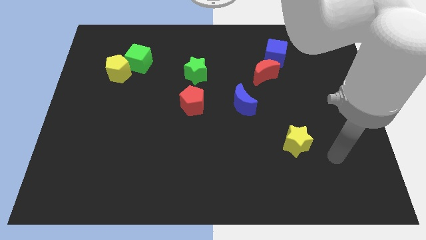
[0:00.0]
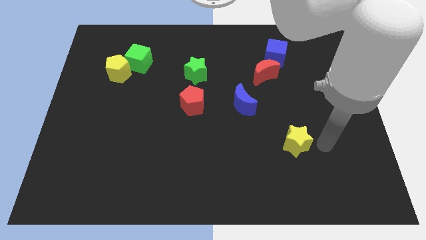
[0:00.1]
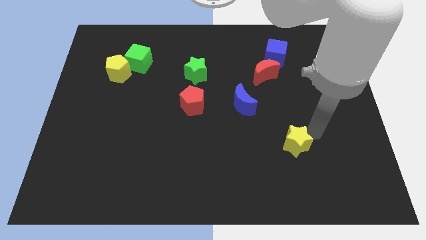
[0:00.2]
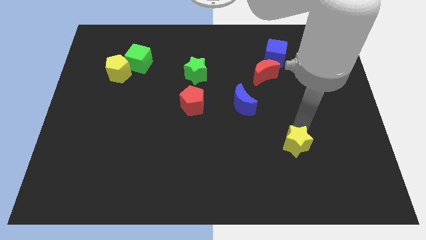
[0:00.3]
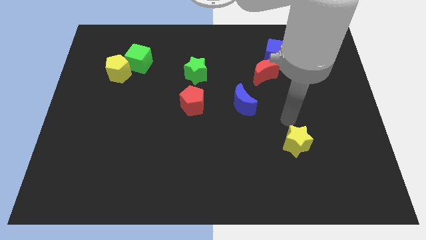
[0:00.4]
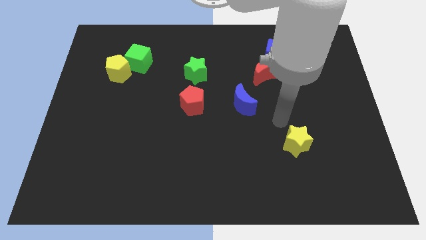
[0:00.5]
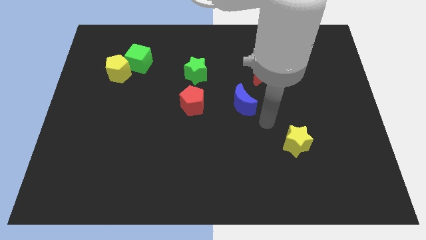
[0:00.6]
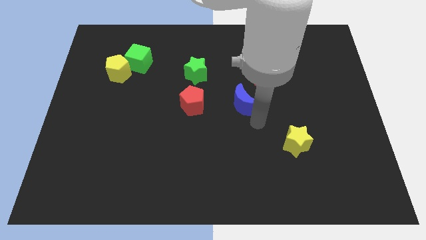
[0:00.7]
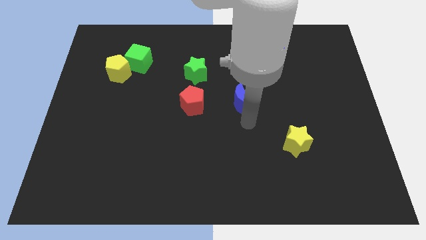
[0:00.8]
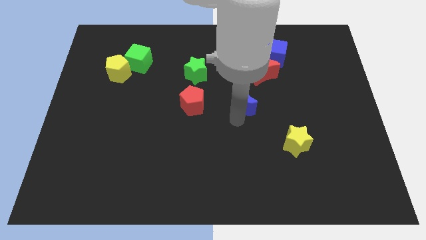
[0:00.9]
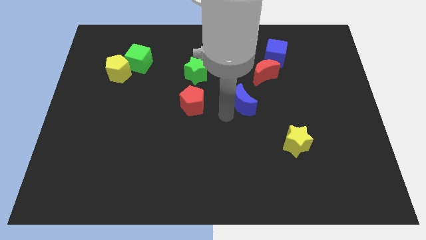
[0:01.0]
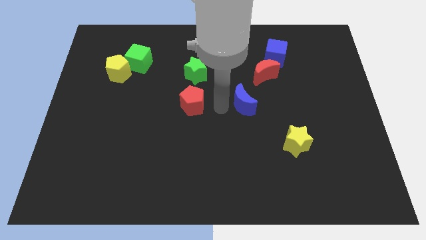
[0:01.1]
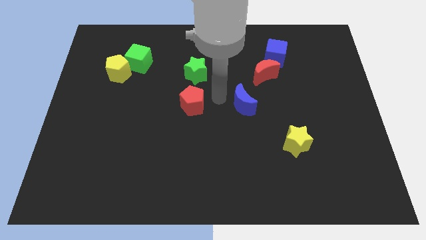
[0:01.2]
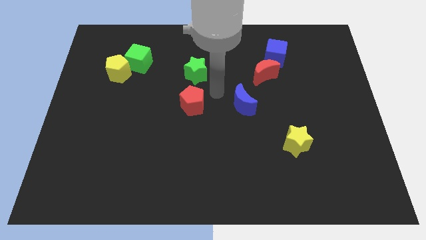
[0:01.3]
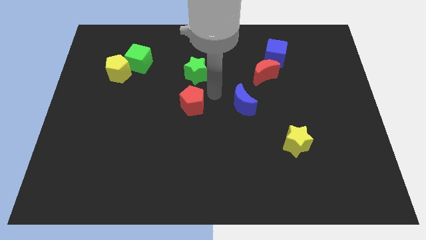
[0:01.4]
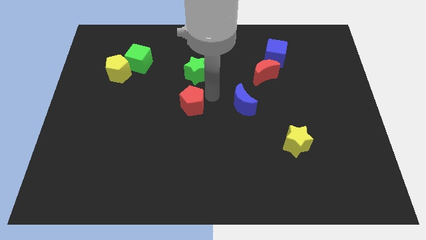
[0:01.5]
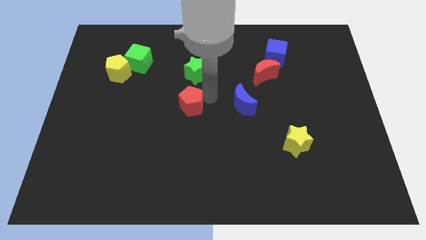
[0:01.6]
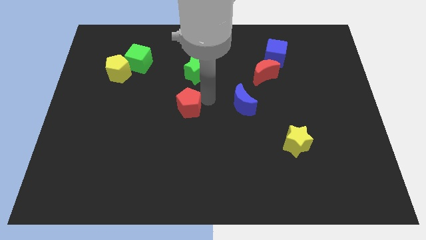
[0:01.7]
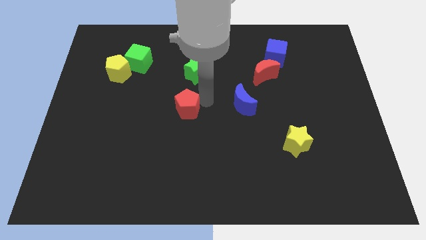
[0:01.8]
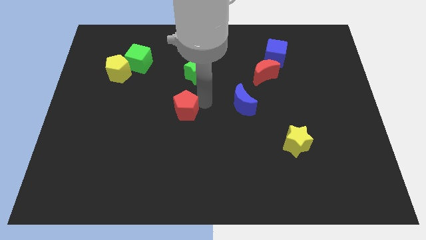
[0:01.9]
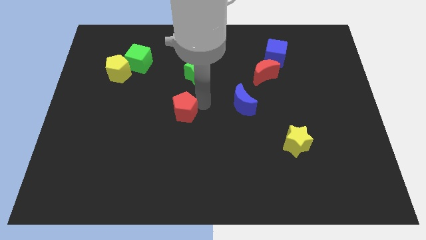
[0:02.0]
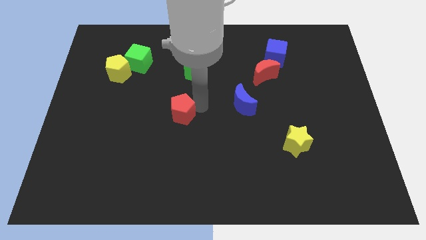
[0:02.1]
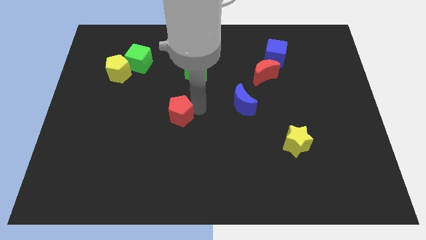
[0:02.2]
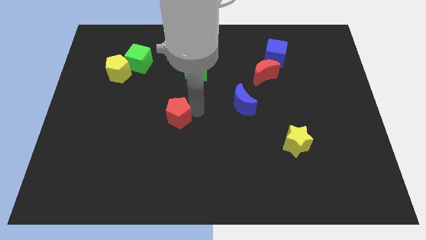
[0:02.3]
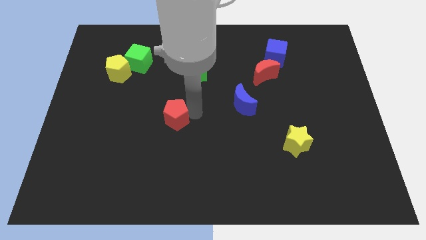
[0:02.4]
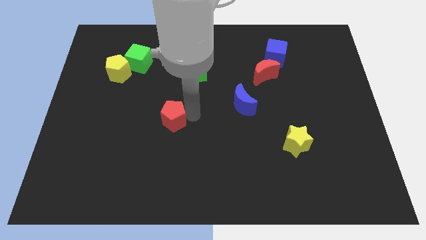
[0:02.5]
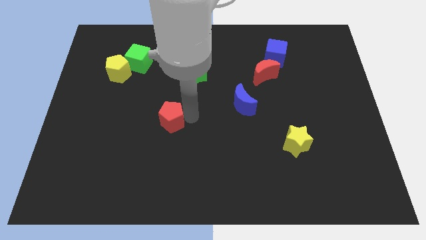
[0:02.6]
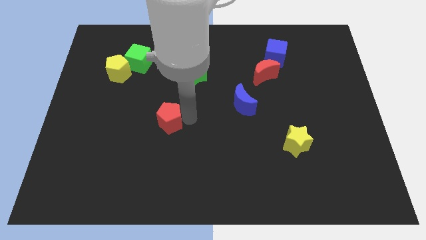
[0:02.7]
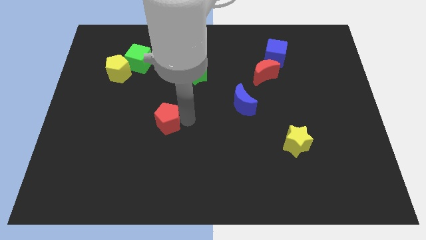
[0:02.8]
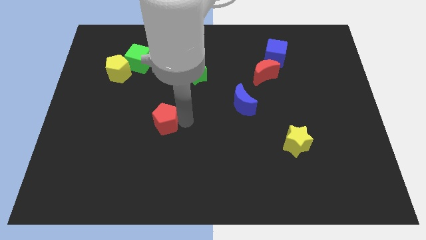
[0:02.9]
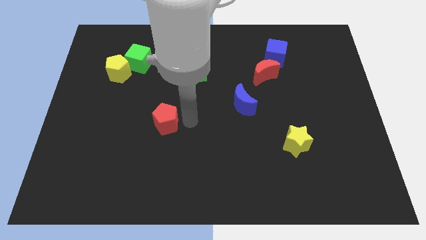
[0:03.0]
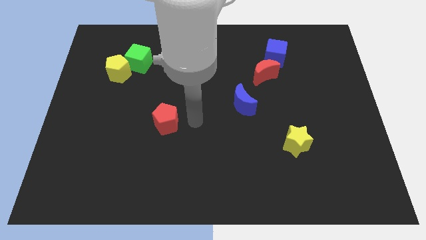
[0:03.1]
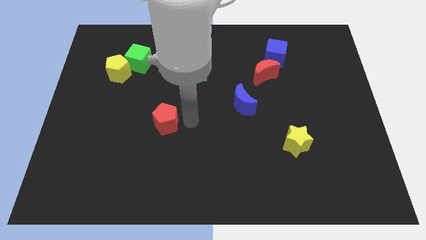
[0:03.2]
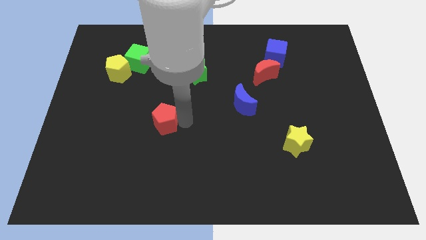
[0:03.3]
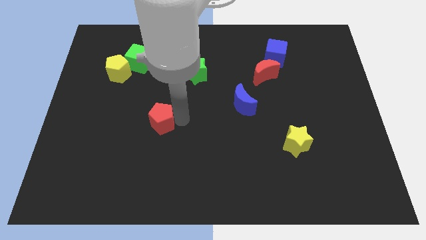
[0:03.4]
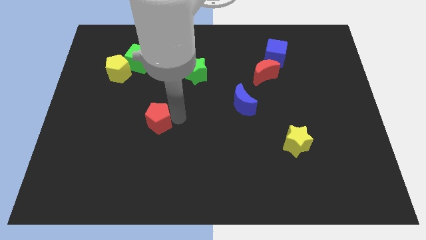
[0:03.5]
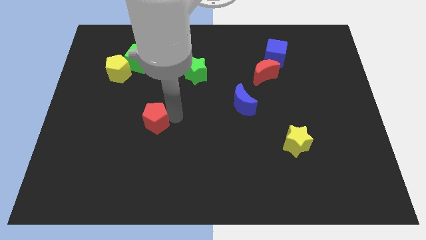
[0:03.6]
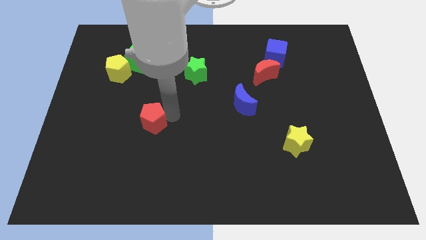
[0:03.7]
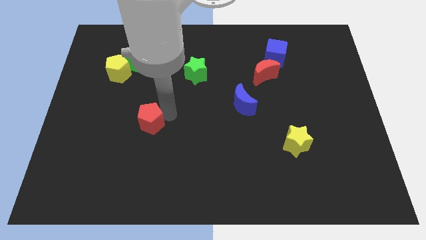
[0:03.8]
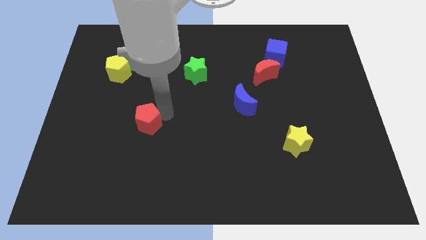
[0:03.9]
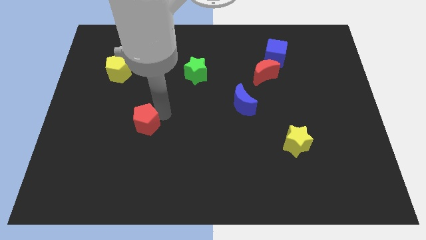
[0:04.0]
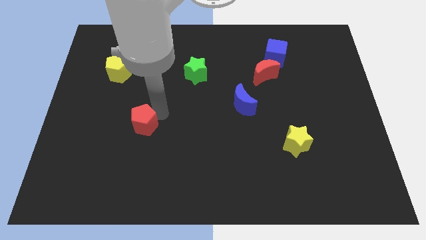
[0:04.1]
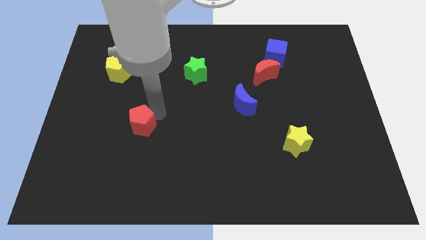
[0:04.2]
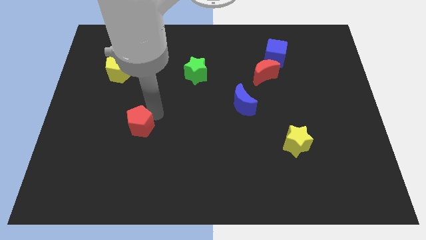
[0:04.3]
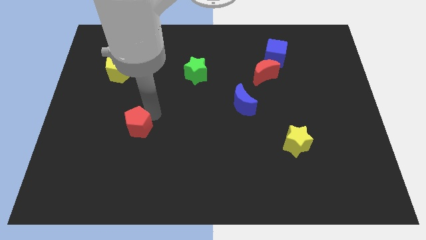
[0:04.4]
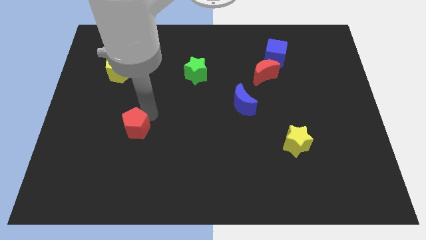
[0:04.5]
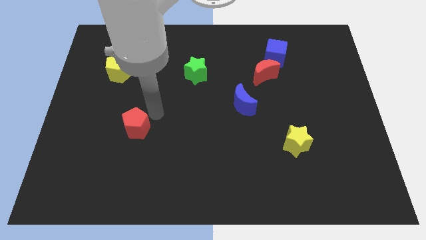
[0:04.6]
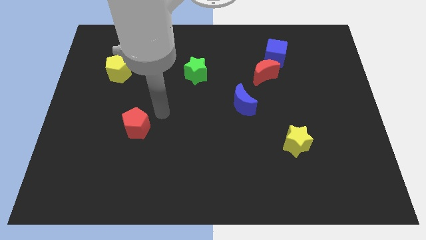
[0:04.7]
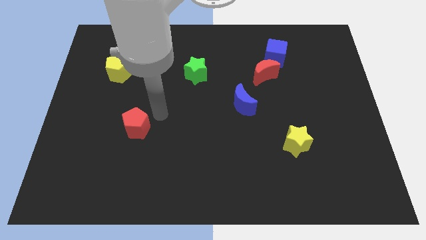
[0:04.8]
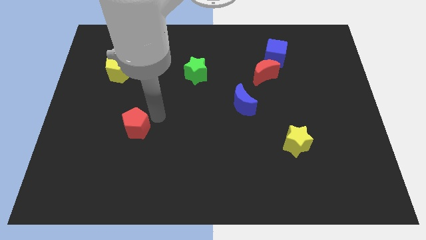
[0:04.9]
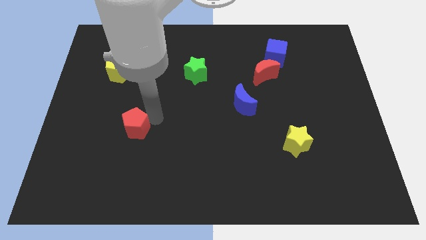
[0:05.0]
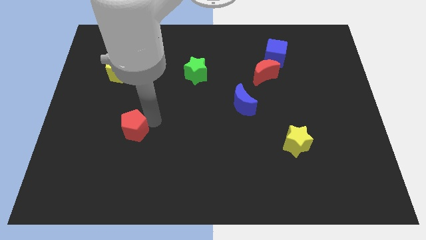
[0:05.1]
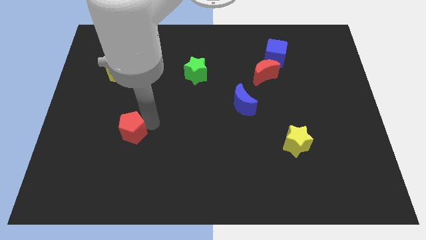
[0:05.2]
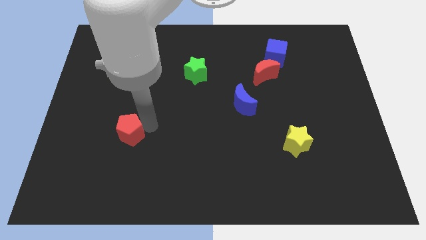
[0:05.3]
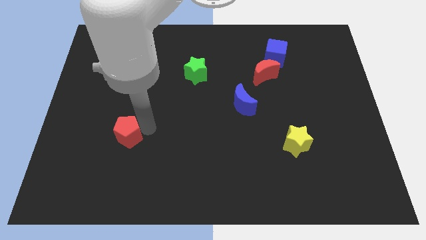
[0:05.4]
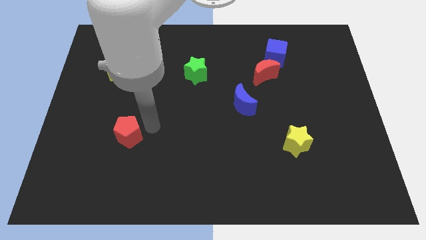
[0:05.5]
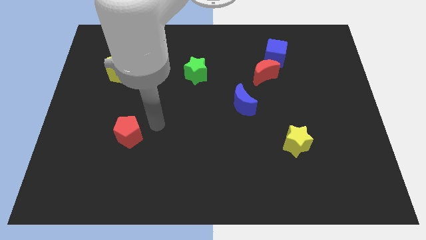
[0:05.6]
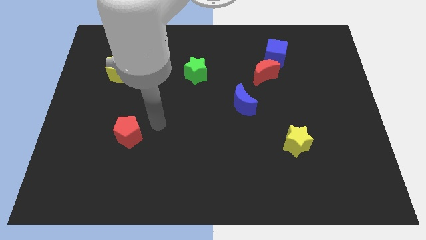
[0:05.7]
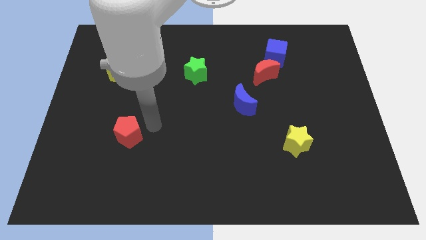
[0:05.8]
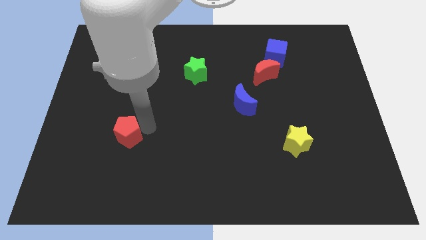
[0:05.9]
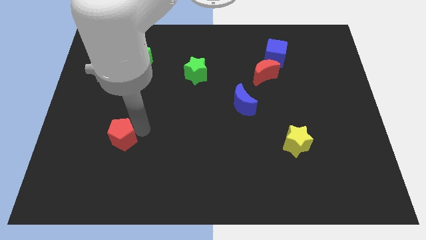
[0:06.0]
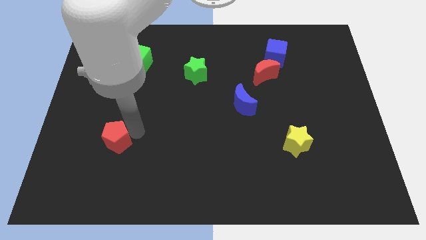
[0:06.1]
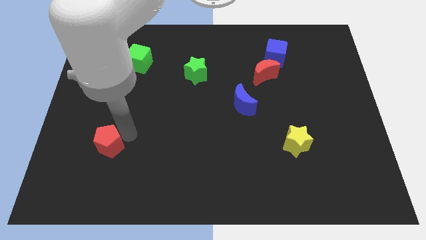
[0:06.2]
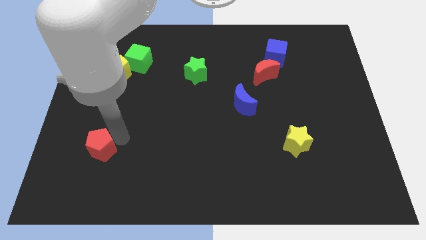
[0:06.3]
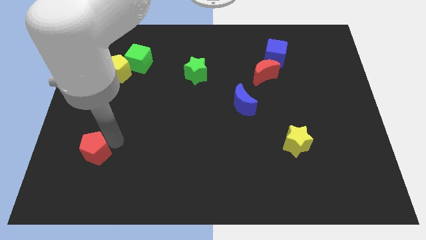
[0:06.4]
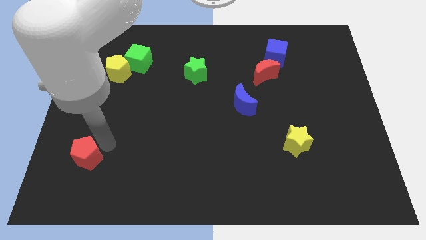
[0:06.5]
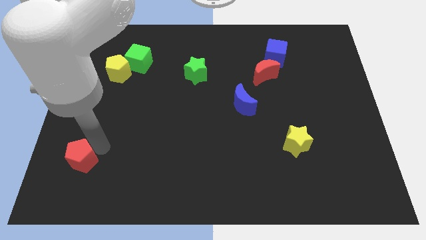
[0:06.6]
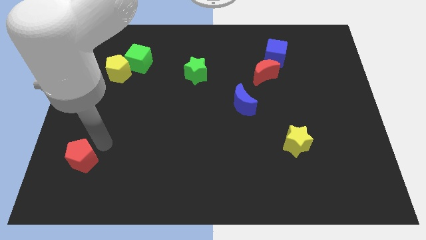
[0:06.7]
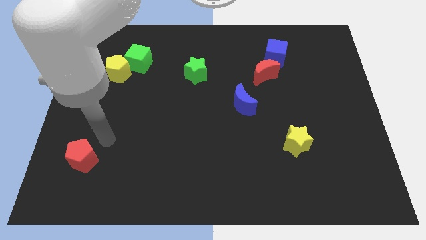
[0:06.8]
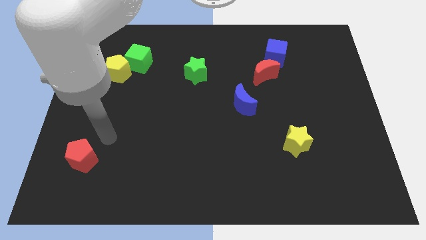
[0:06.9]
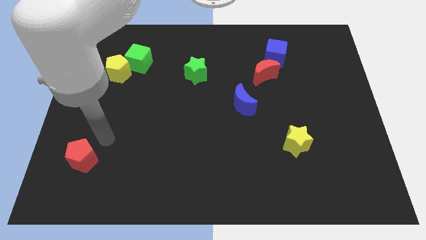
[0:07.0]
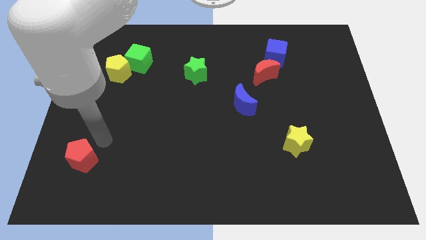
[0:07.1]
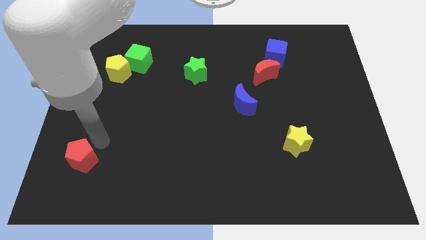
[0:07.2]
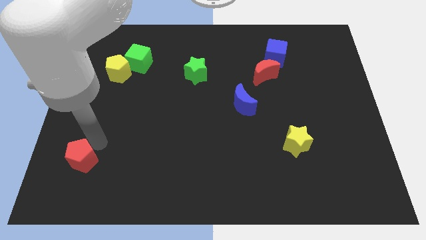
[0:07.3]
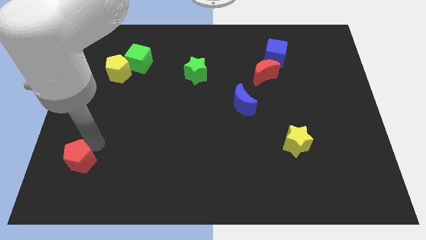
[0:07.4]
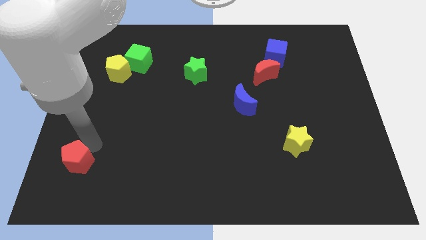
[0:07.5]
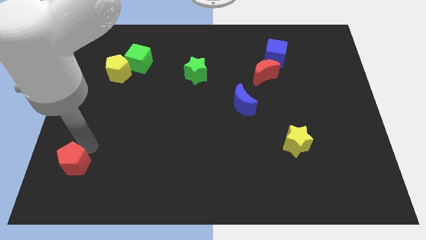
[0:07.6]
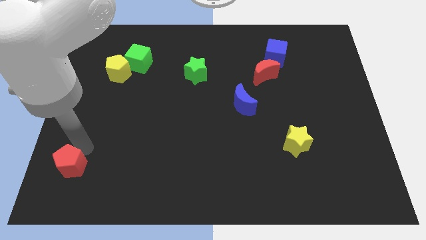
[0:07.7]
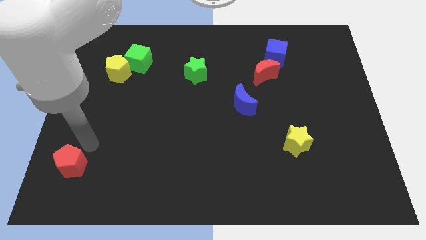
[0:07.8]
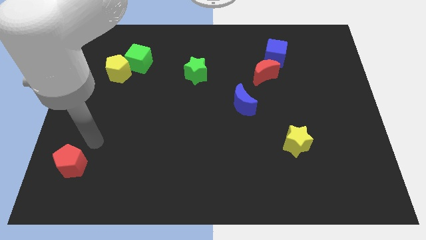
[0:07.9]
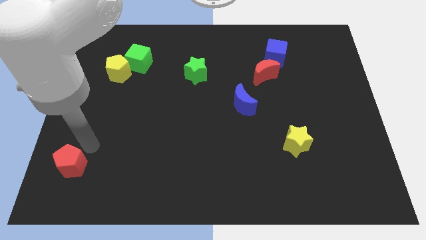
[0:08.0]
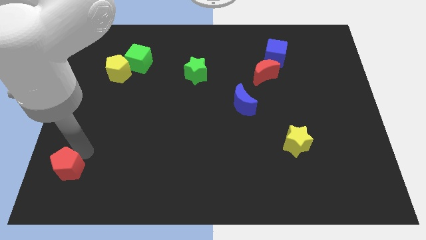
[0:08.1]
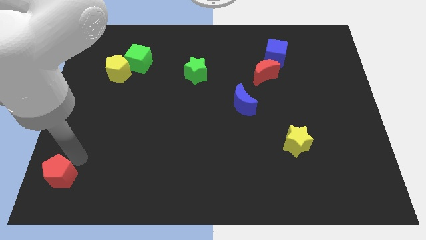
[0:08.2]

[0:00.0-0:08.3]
slide the red pentagon to the bottom left
